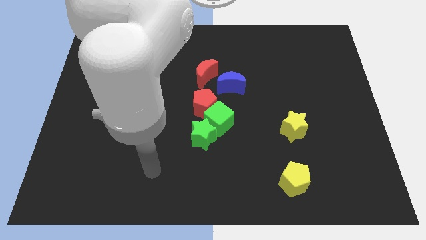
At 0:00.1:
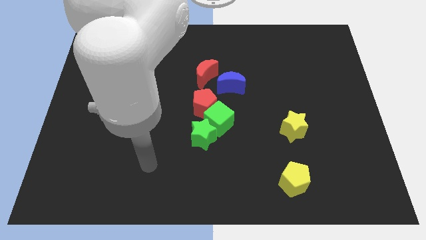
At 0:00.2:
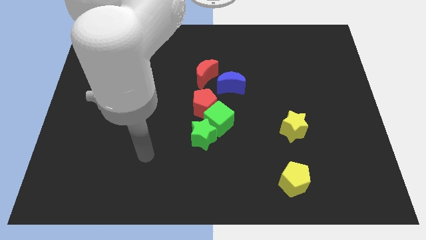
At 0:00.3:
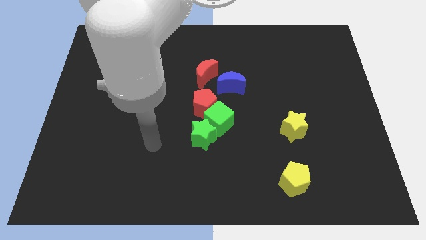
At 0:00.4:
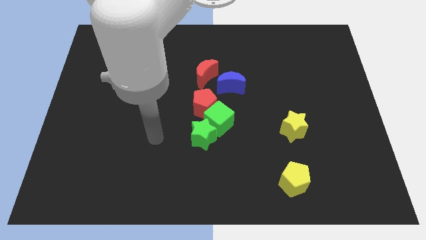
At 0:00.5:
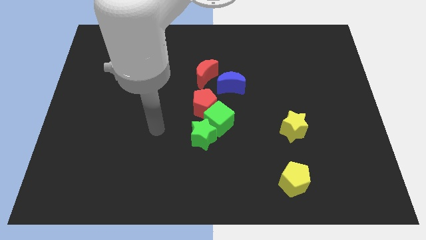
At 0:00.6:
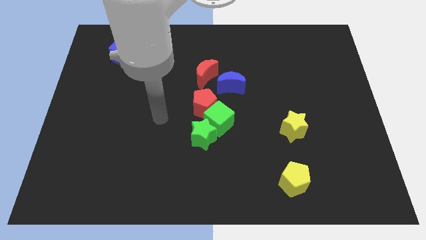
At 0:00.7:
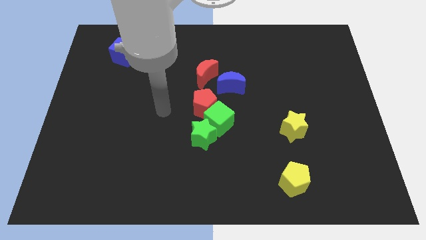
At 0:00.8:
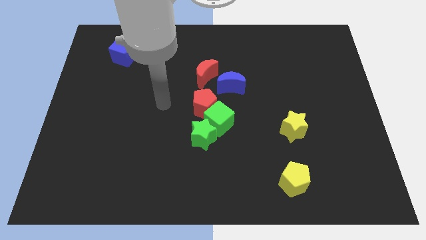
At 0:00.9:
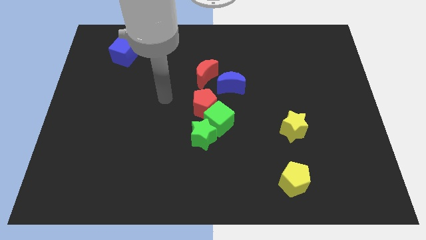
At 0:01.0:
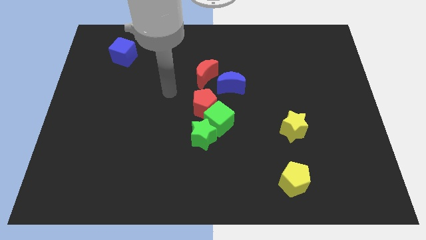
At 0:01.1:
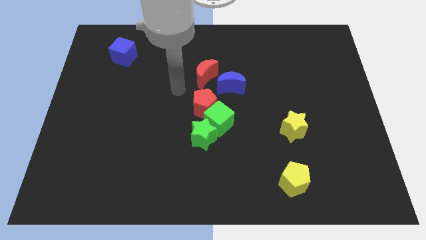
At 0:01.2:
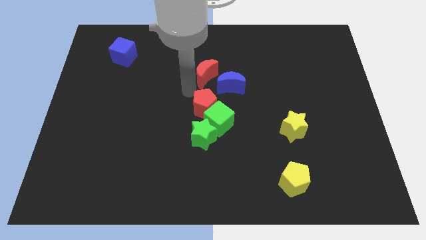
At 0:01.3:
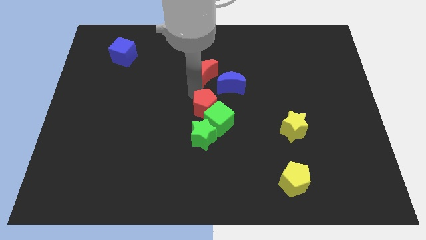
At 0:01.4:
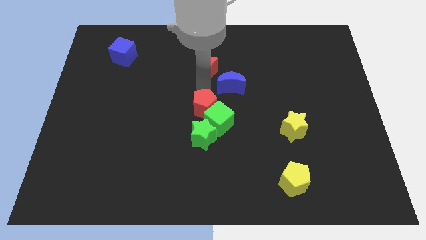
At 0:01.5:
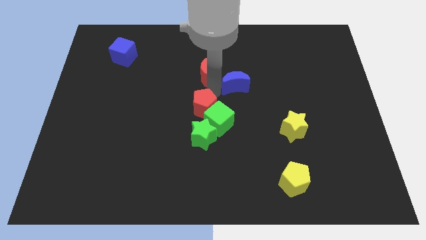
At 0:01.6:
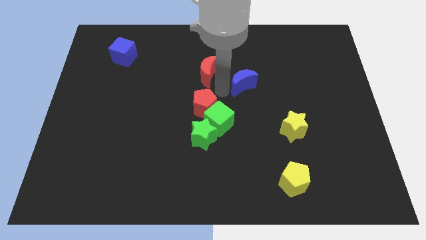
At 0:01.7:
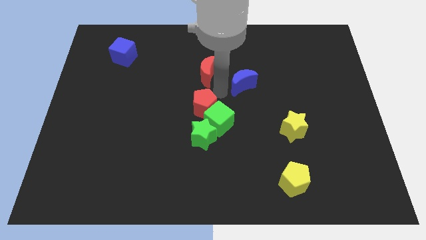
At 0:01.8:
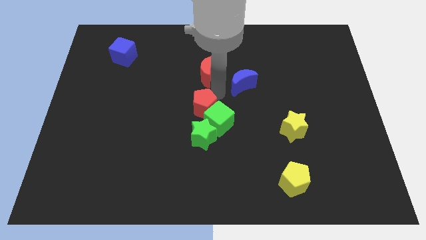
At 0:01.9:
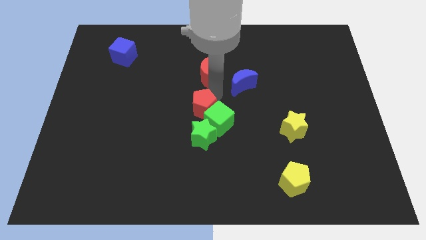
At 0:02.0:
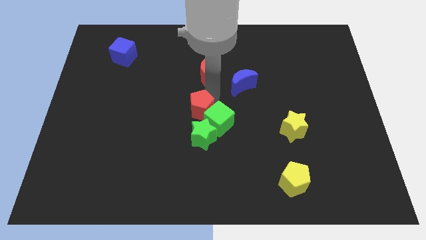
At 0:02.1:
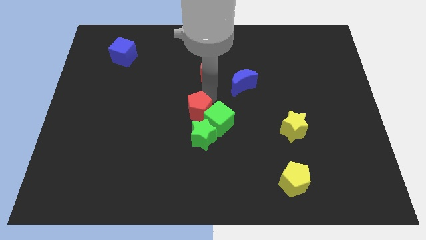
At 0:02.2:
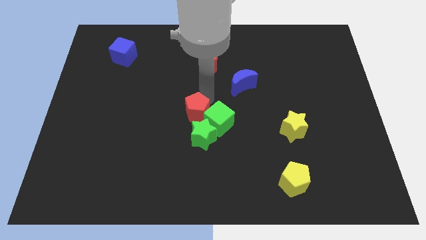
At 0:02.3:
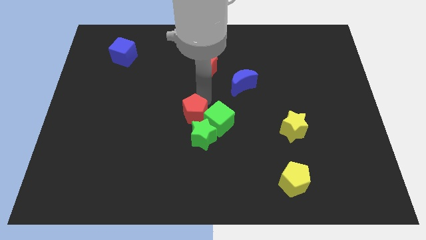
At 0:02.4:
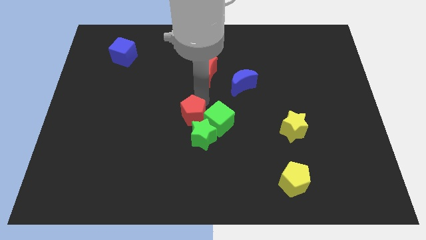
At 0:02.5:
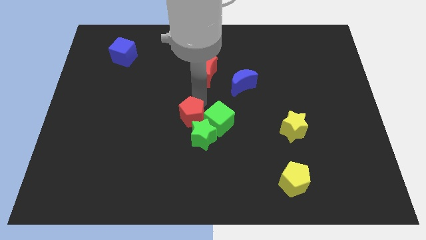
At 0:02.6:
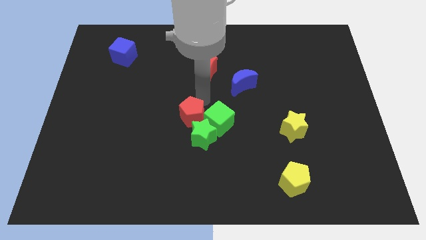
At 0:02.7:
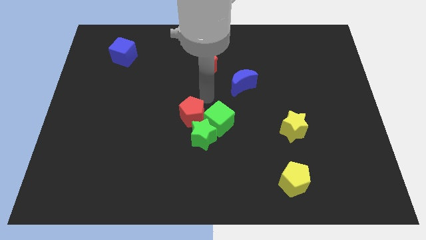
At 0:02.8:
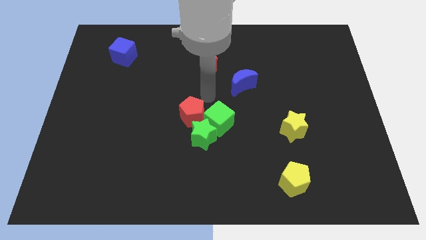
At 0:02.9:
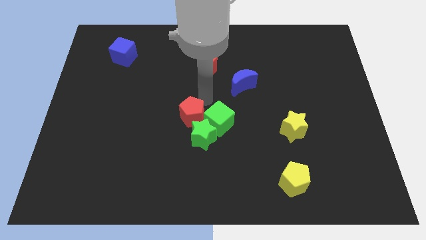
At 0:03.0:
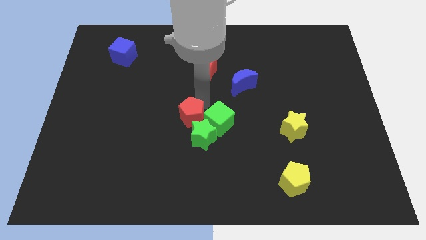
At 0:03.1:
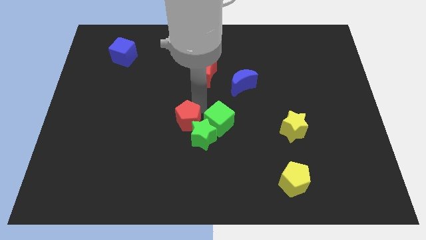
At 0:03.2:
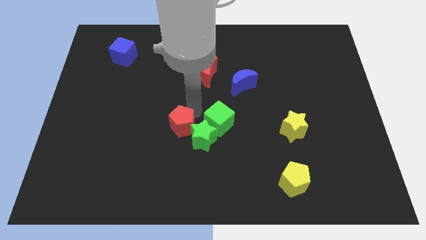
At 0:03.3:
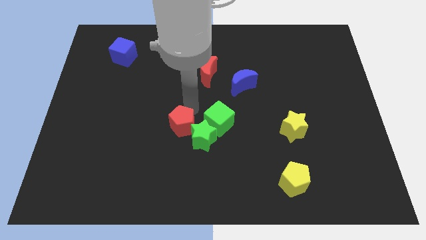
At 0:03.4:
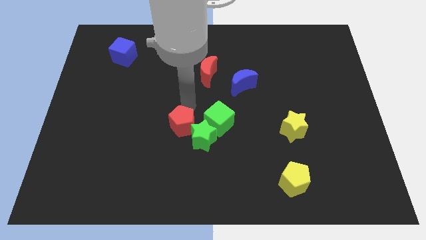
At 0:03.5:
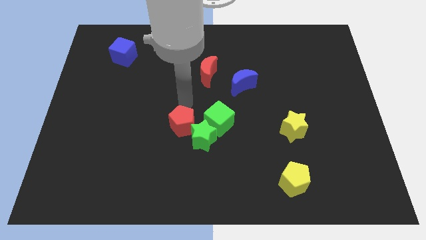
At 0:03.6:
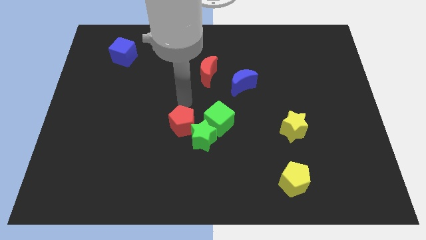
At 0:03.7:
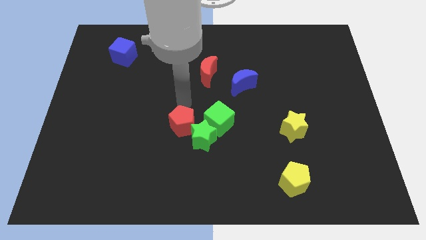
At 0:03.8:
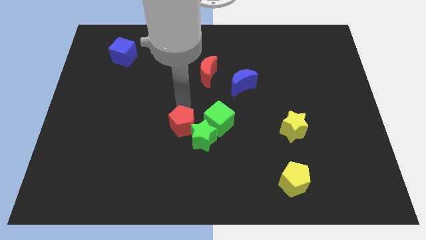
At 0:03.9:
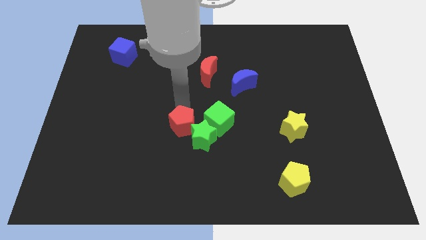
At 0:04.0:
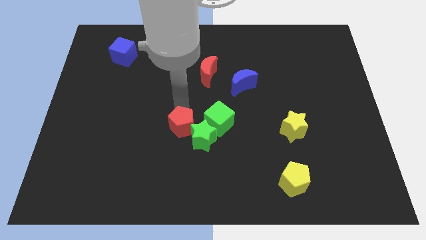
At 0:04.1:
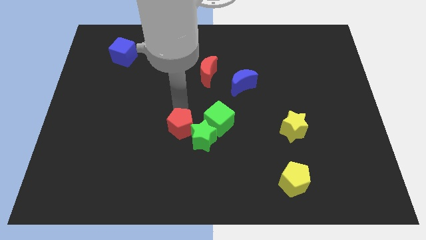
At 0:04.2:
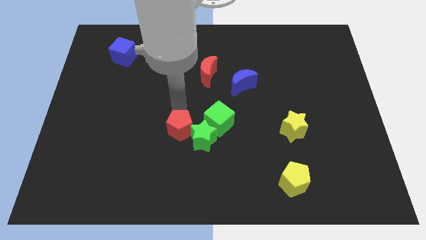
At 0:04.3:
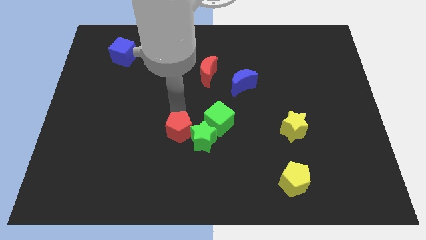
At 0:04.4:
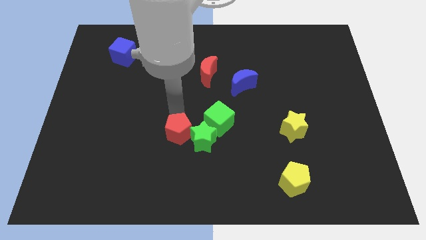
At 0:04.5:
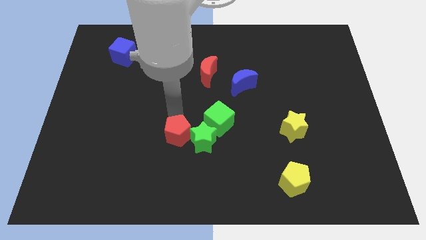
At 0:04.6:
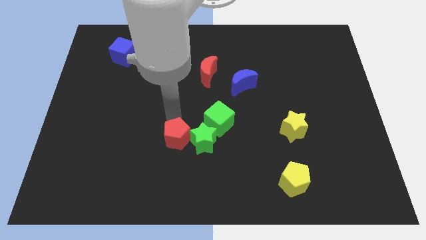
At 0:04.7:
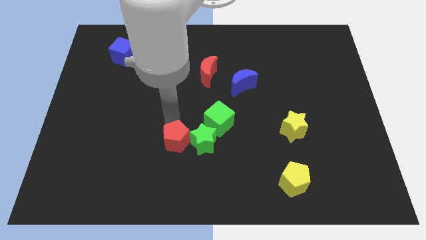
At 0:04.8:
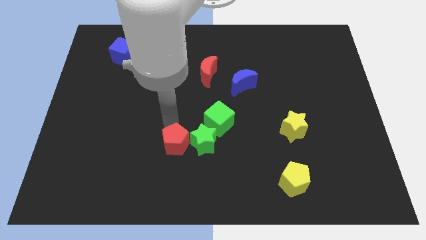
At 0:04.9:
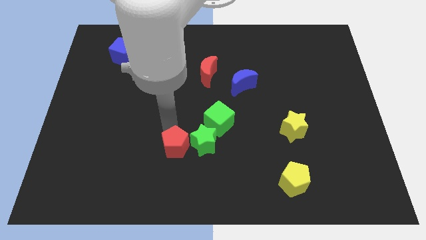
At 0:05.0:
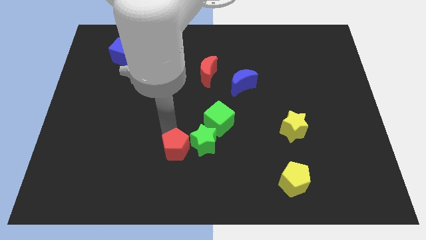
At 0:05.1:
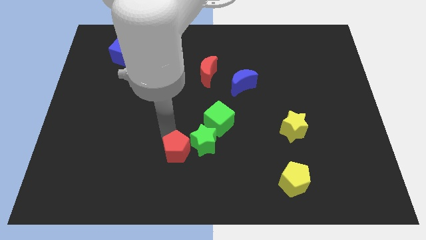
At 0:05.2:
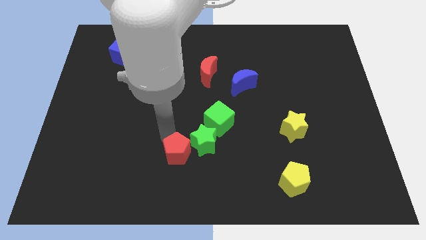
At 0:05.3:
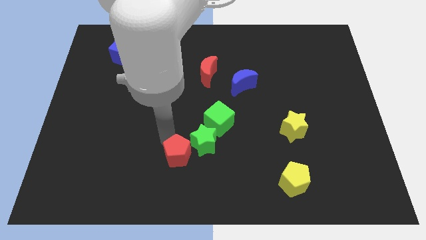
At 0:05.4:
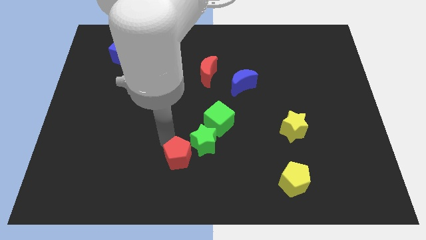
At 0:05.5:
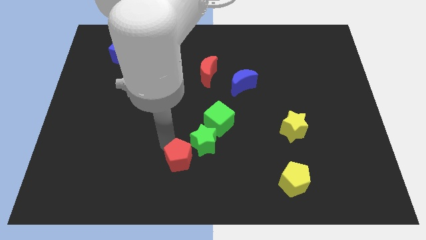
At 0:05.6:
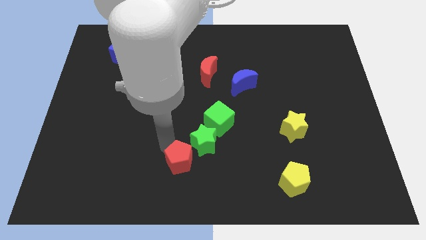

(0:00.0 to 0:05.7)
move the red pentagon to the bottom side

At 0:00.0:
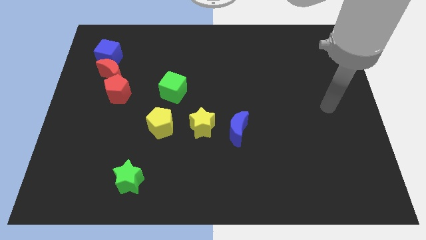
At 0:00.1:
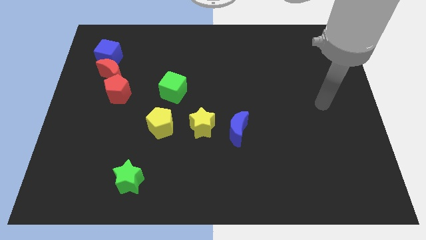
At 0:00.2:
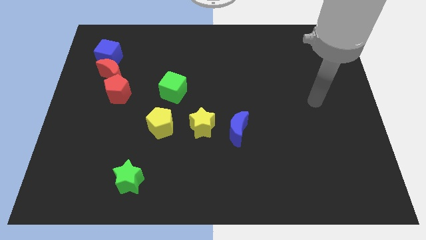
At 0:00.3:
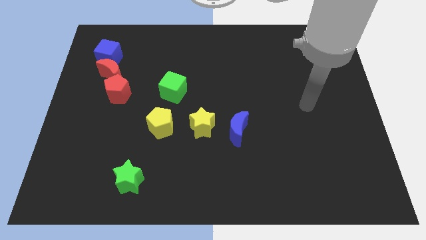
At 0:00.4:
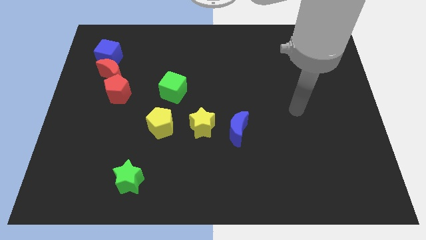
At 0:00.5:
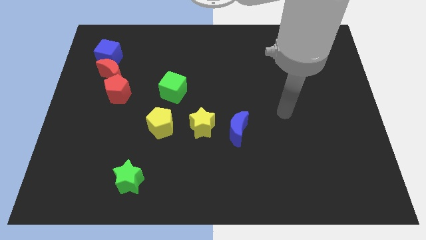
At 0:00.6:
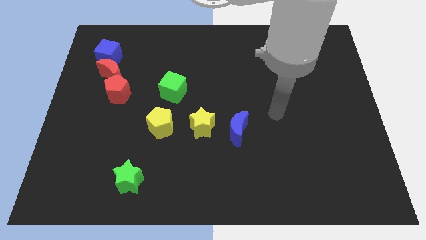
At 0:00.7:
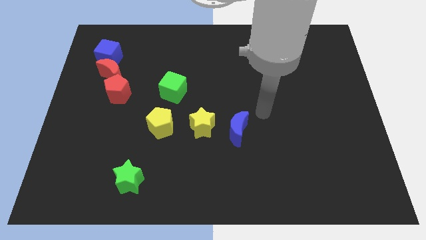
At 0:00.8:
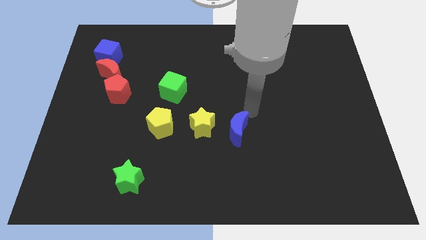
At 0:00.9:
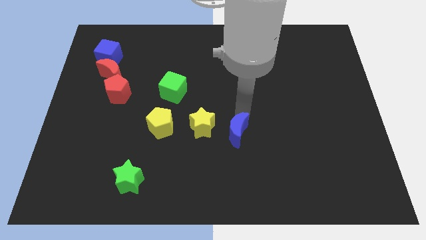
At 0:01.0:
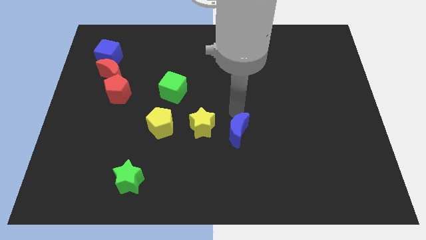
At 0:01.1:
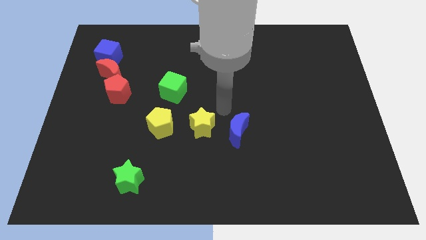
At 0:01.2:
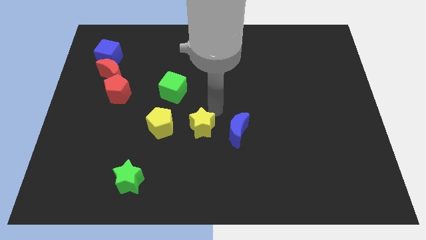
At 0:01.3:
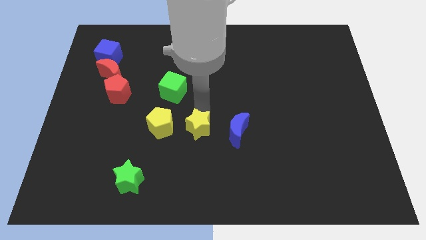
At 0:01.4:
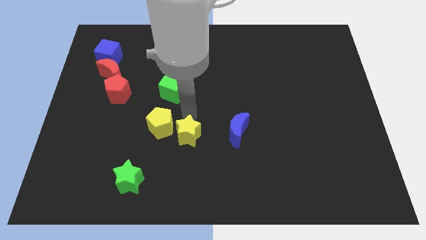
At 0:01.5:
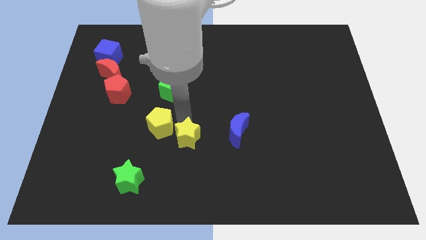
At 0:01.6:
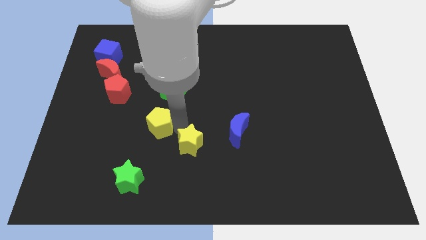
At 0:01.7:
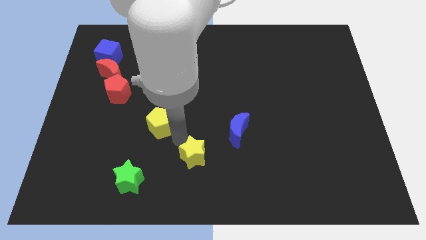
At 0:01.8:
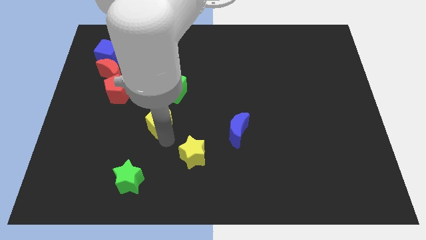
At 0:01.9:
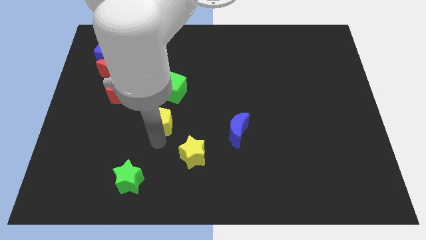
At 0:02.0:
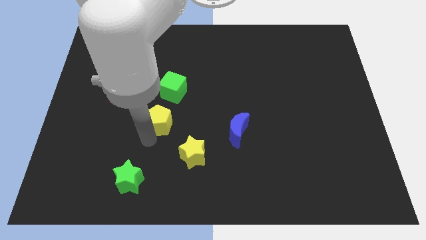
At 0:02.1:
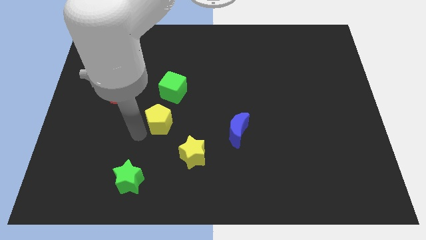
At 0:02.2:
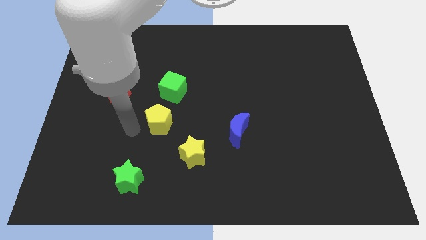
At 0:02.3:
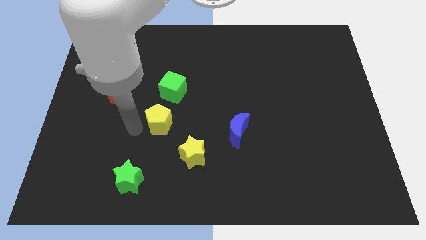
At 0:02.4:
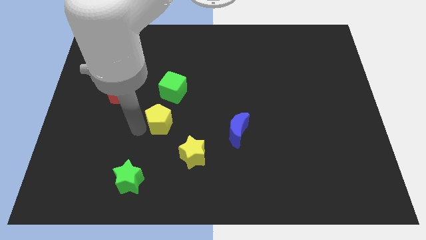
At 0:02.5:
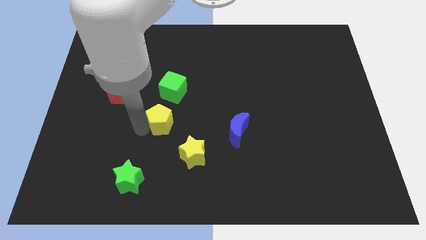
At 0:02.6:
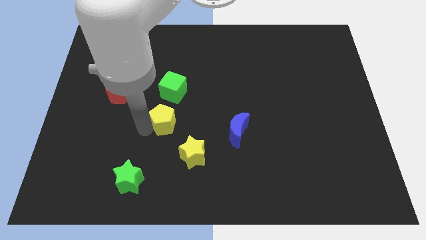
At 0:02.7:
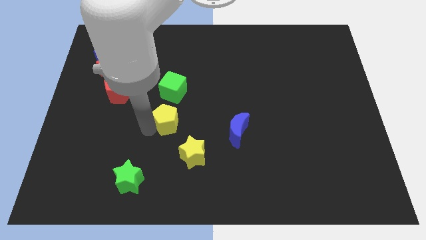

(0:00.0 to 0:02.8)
put the yellow pentagon to the middle of the board
